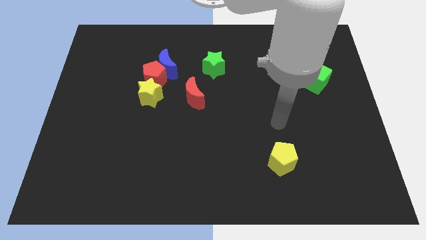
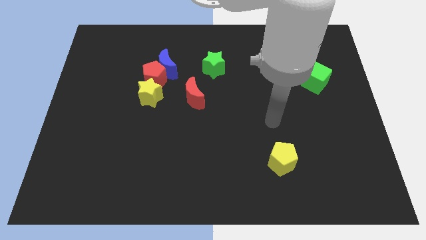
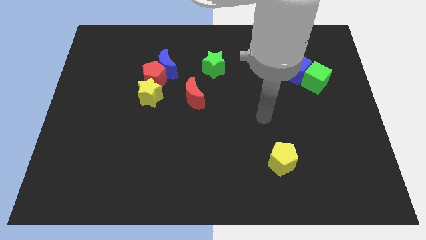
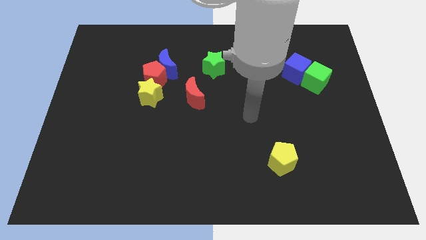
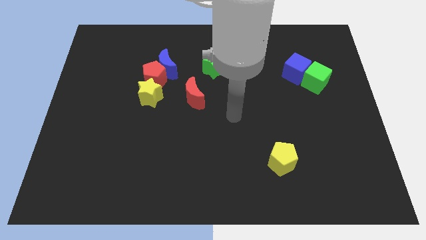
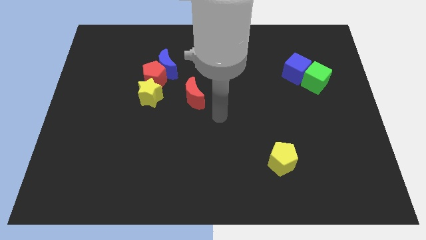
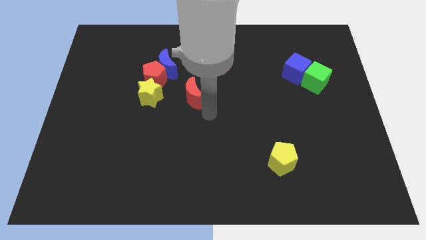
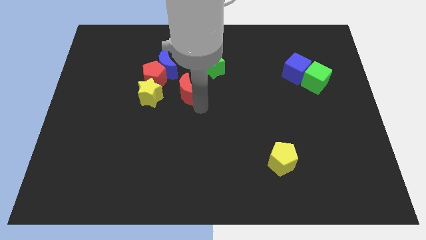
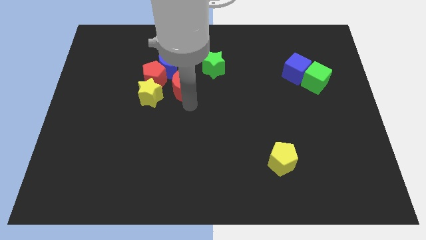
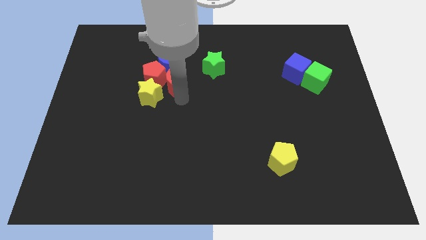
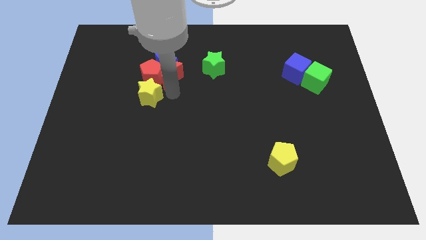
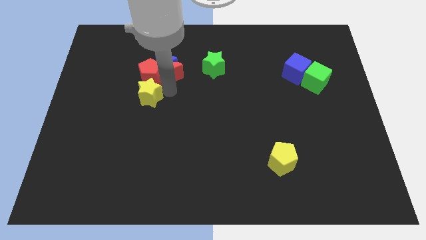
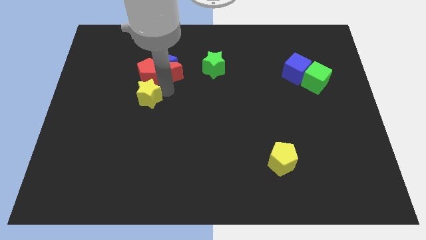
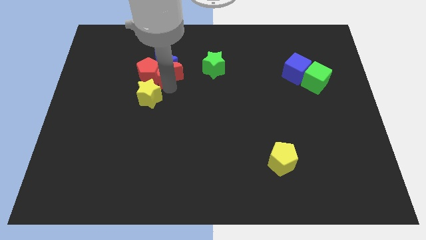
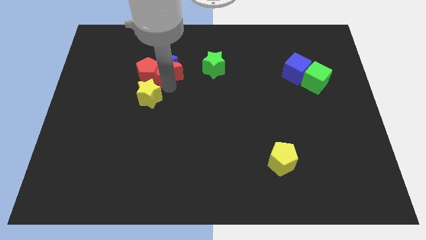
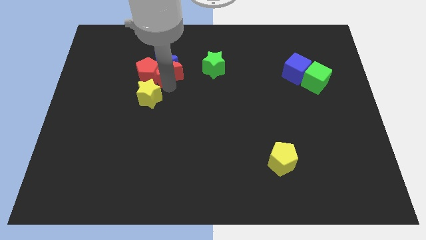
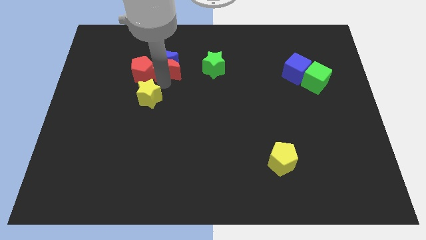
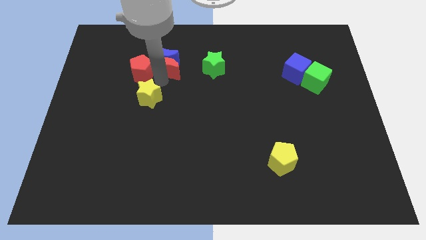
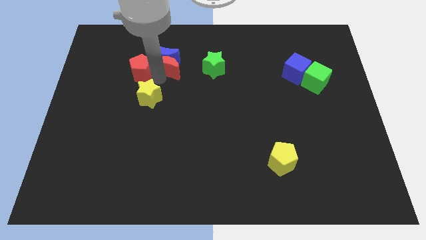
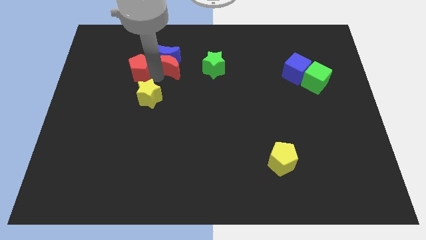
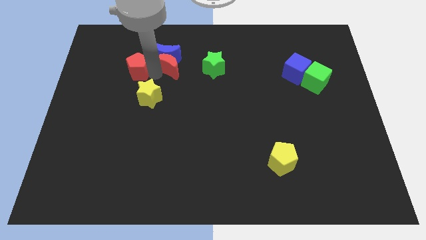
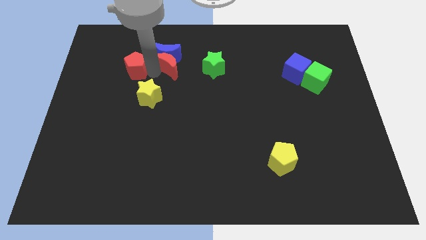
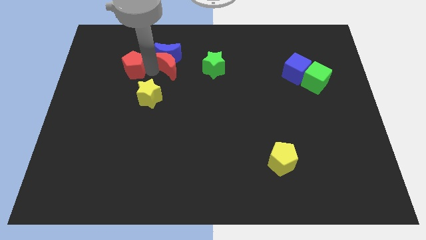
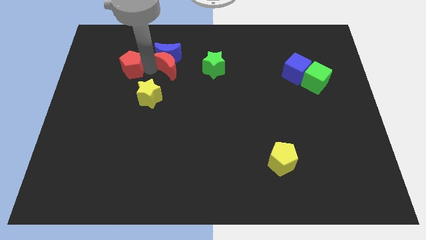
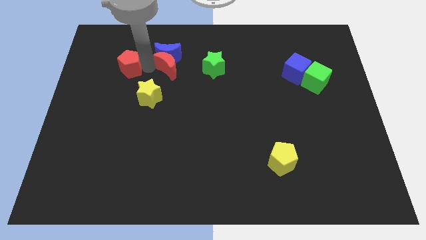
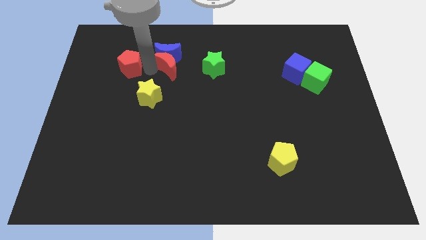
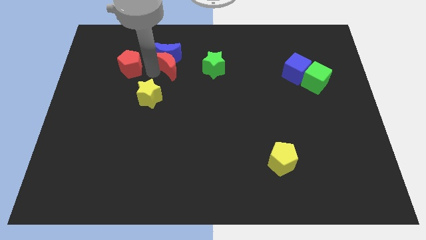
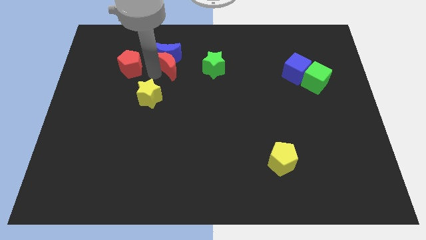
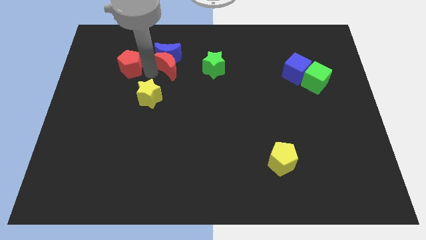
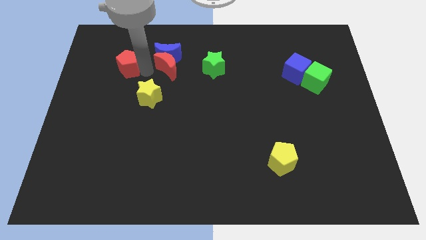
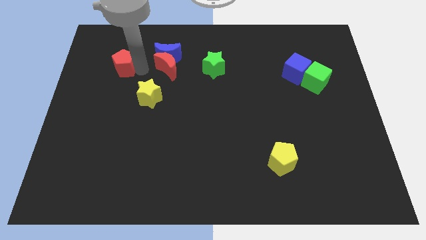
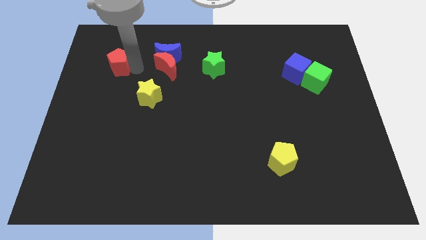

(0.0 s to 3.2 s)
pull the red pentagon apart from the blue moon and yellow star

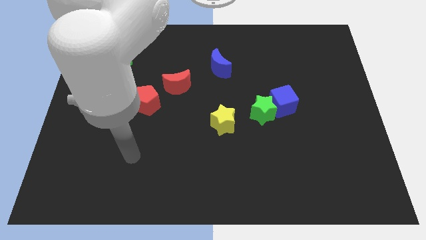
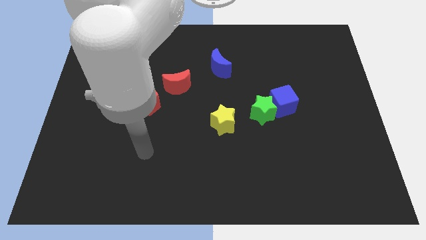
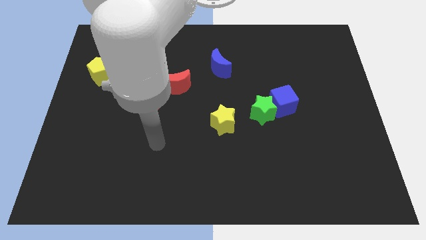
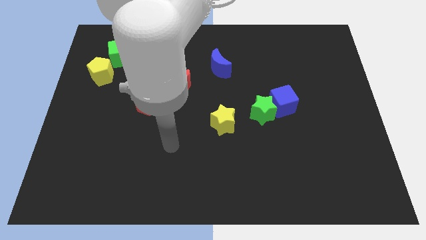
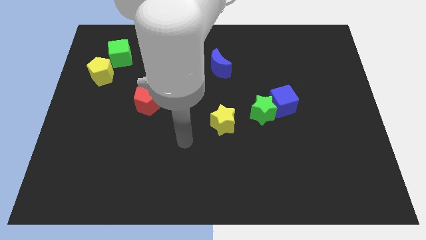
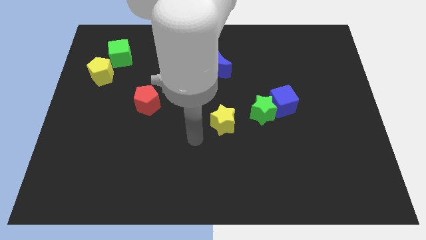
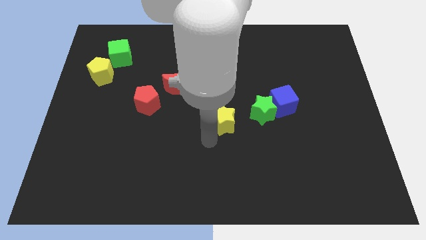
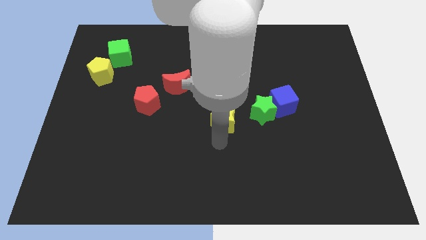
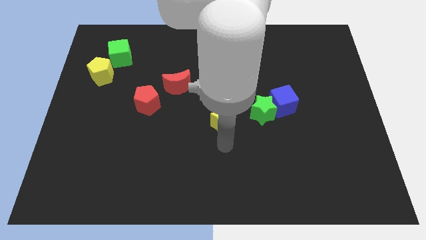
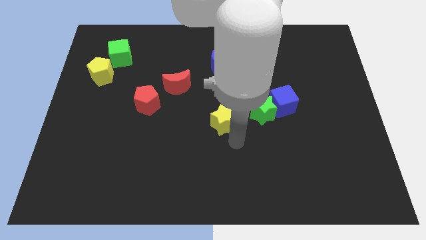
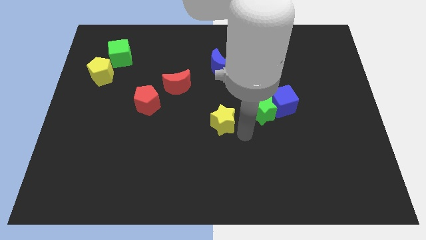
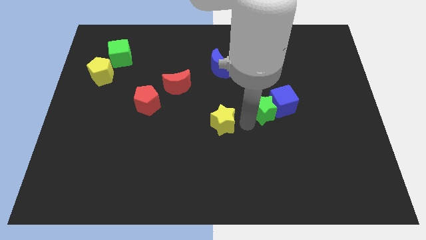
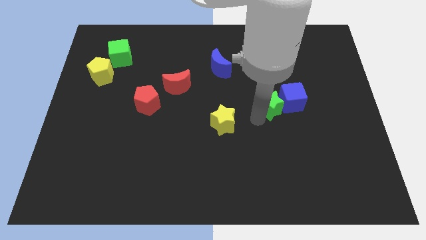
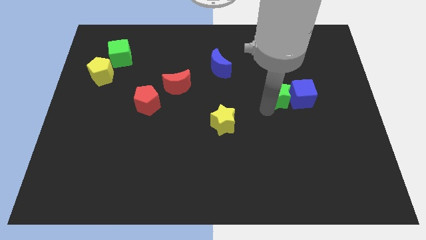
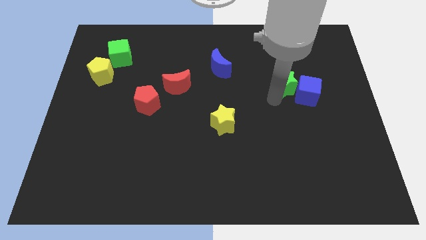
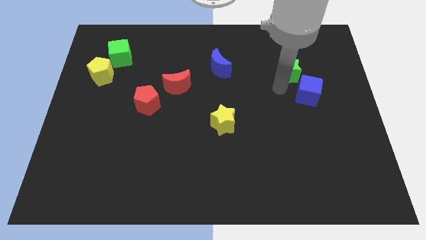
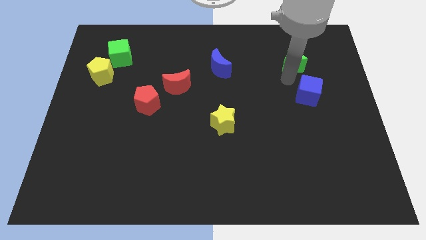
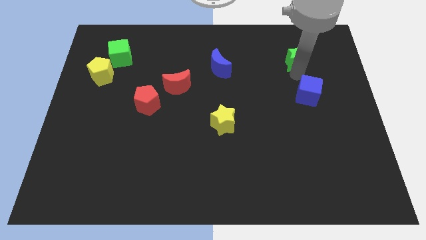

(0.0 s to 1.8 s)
move the blue cube away from the green star

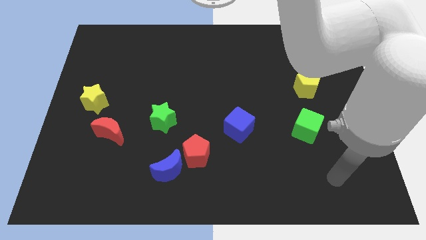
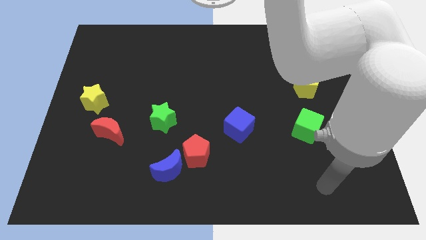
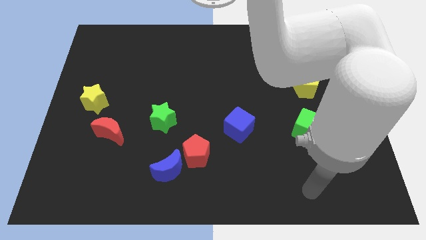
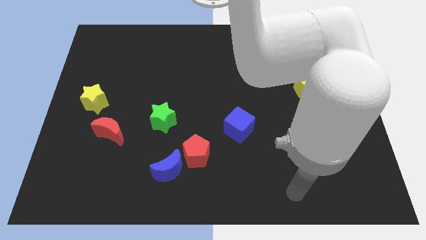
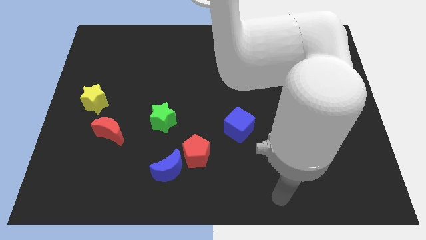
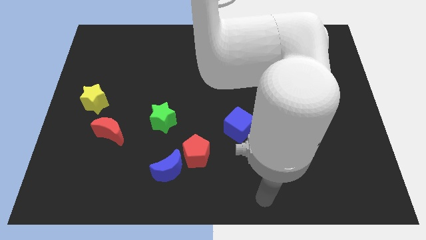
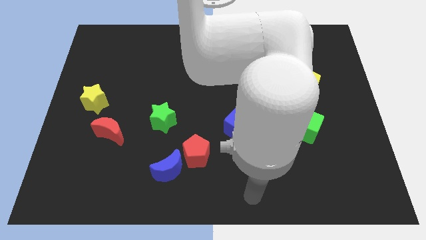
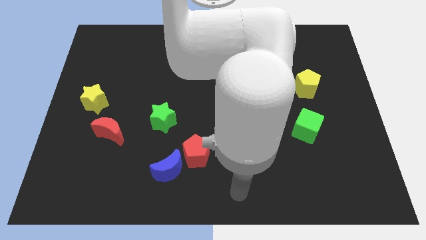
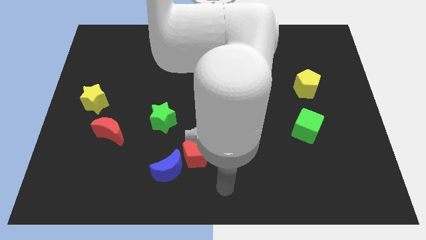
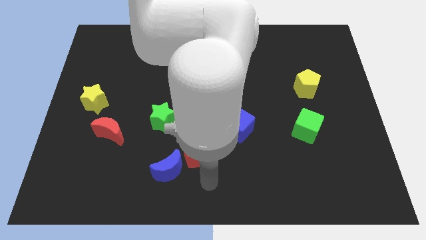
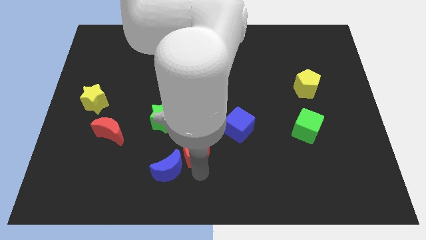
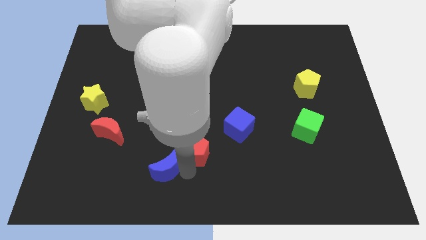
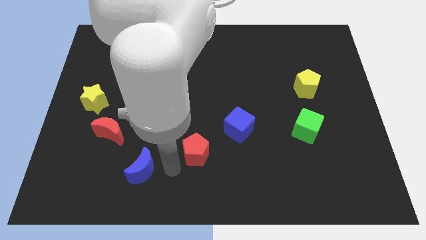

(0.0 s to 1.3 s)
move the red pentagon away from the blue moon

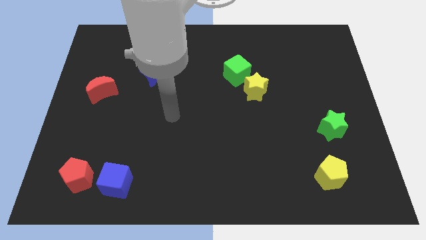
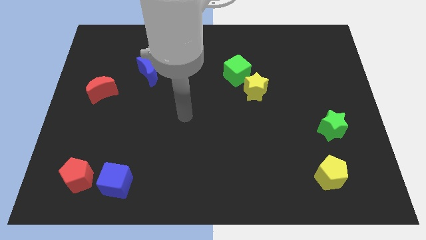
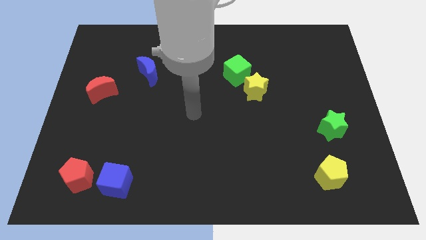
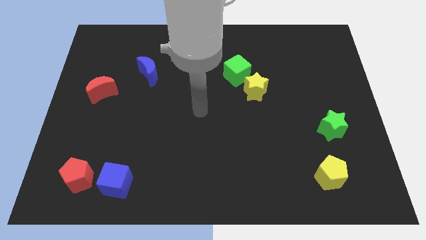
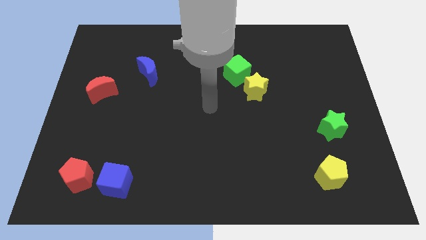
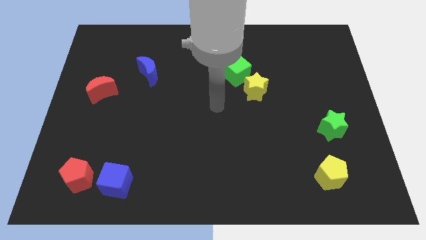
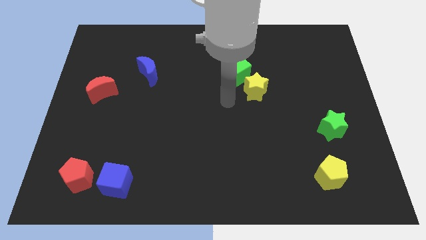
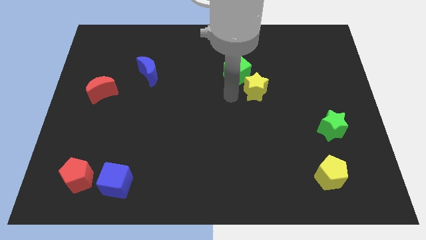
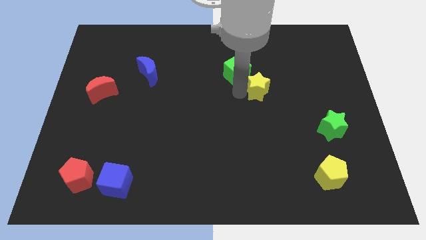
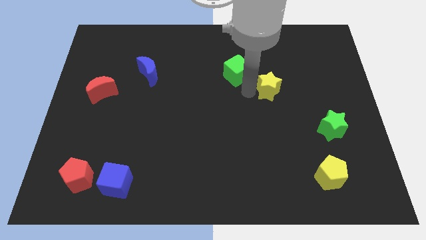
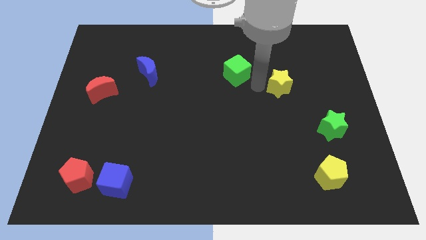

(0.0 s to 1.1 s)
separate the green cube from the yellow star

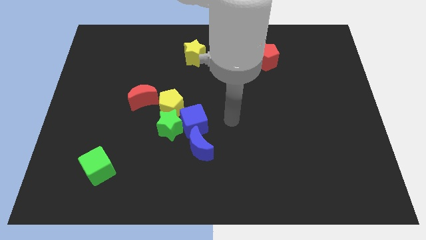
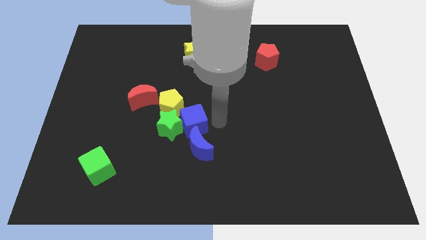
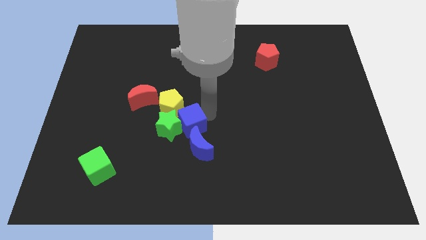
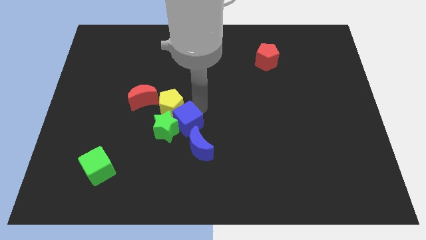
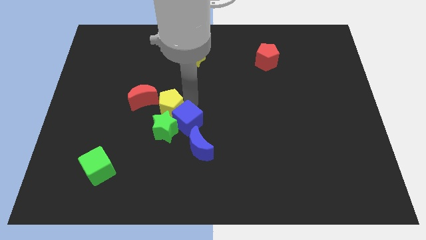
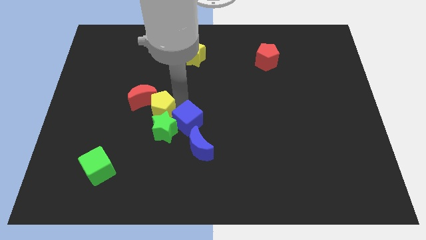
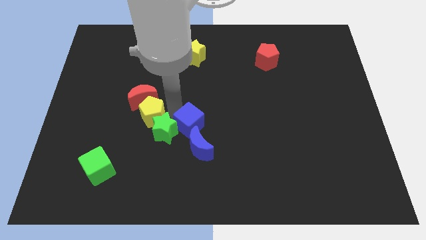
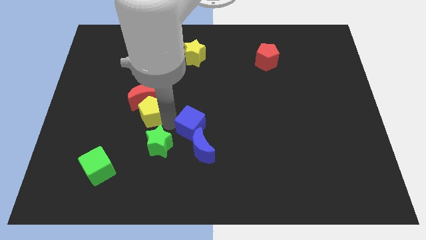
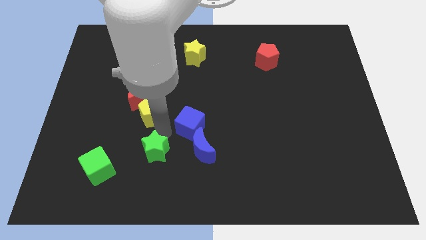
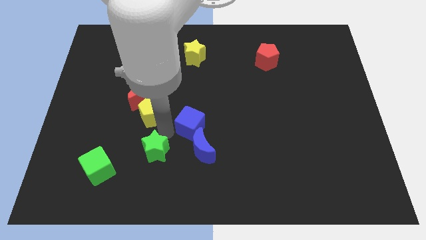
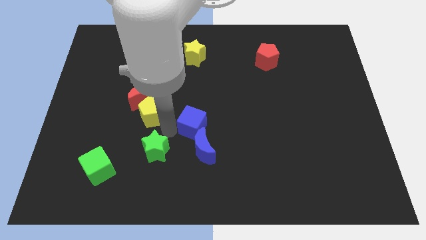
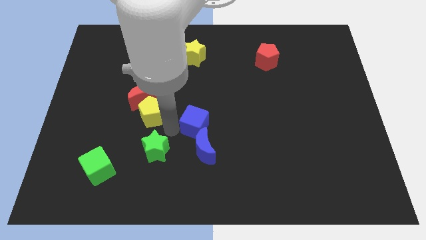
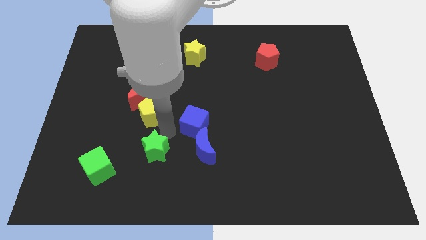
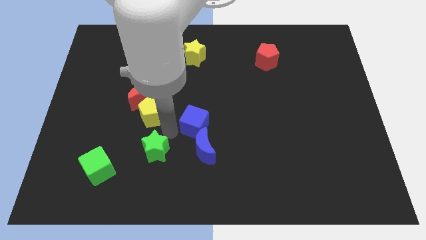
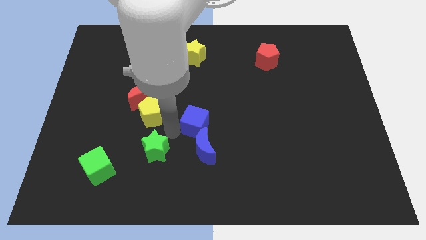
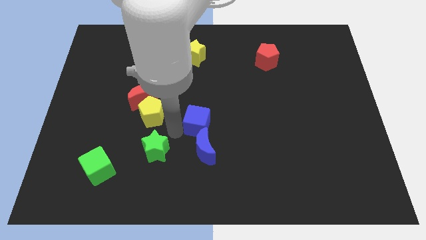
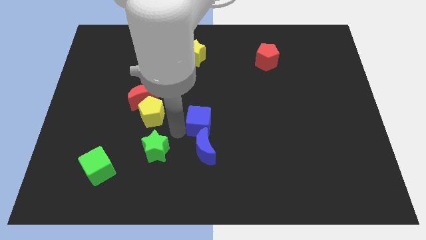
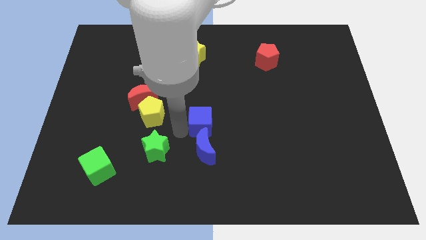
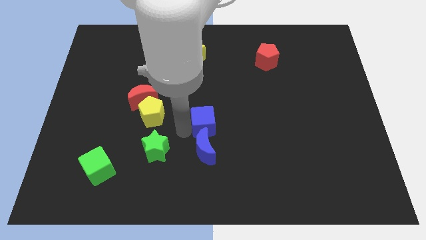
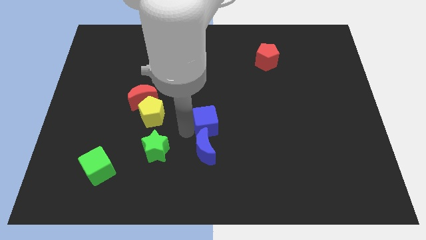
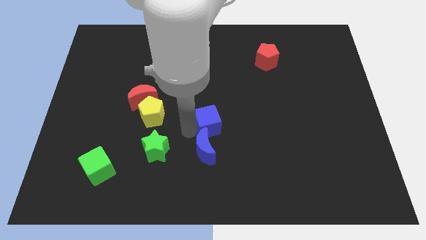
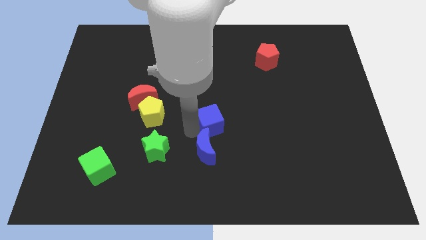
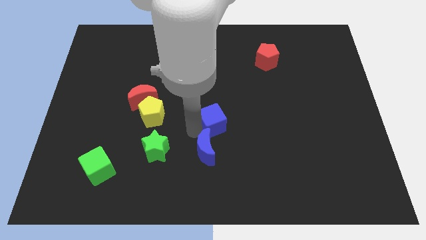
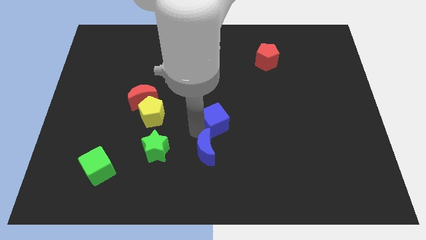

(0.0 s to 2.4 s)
pull the blue cube apart from the group of blocks
